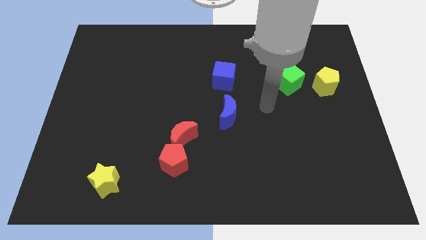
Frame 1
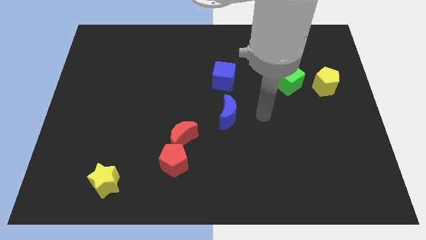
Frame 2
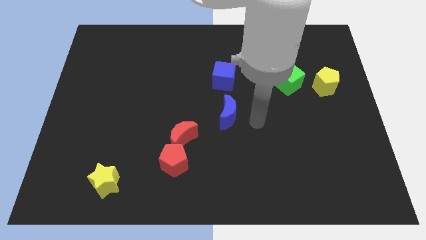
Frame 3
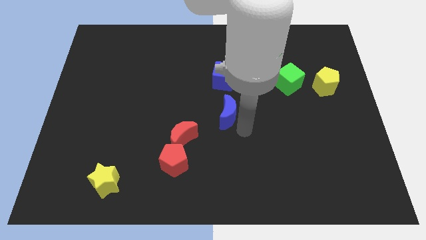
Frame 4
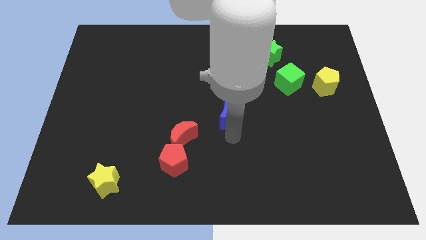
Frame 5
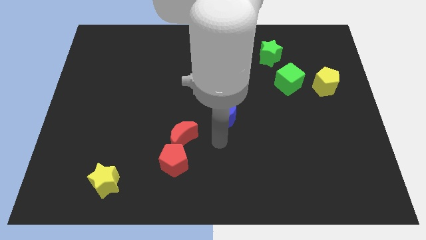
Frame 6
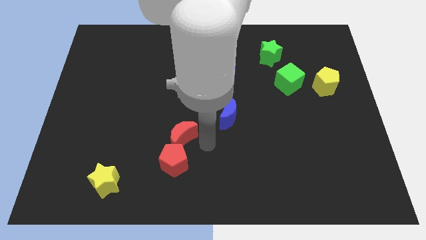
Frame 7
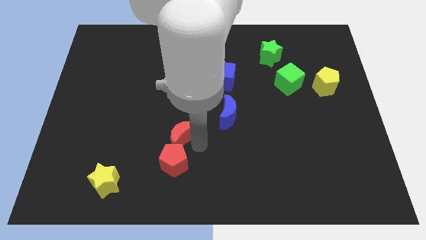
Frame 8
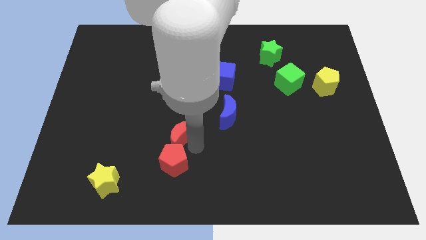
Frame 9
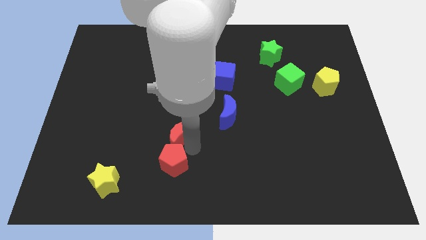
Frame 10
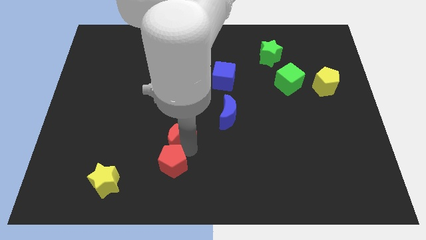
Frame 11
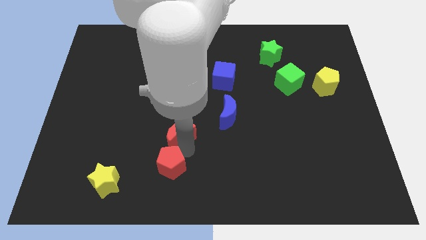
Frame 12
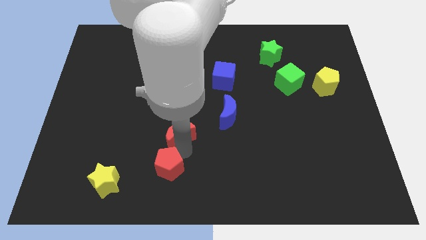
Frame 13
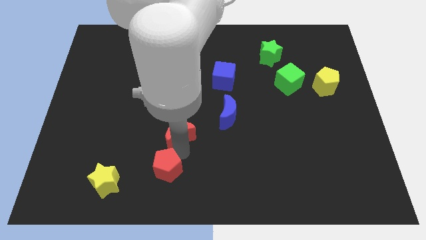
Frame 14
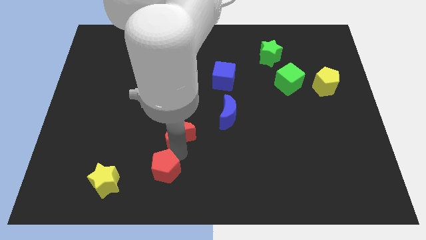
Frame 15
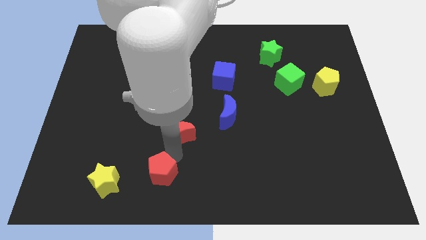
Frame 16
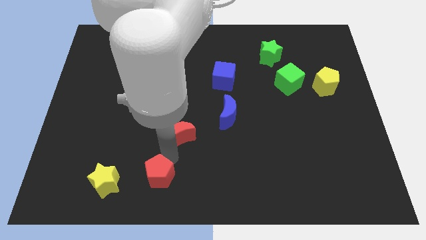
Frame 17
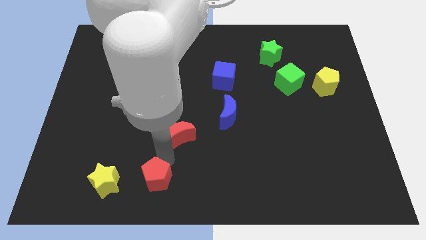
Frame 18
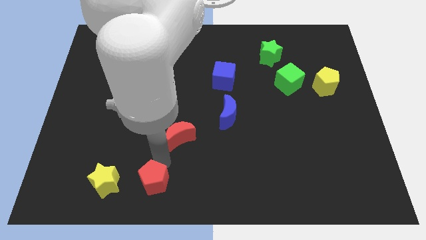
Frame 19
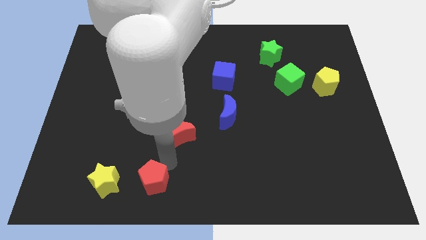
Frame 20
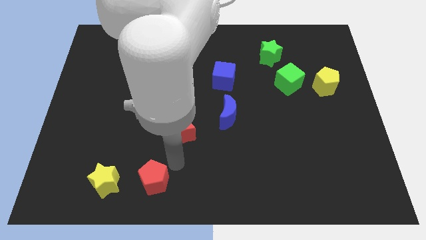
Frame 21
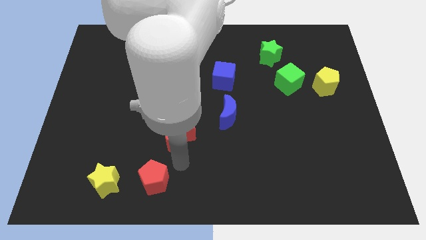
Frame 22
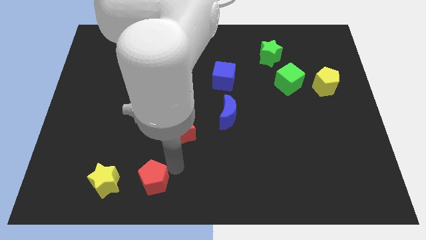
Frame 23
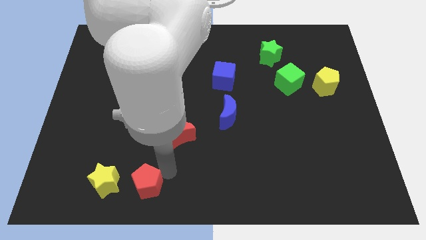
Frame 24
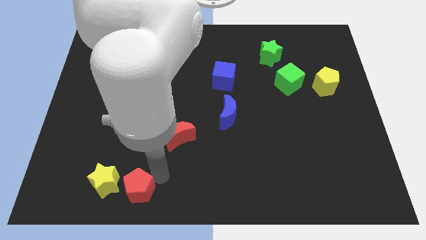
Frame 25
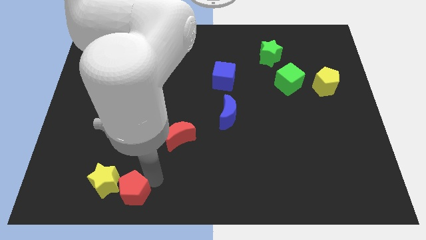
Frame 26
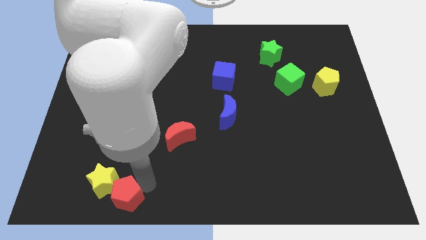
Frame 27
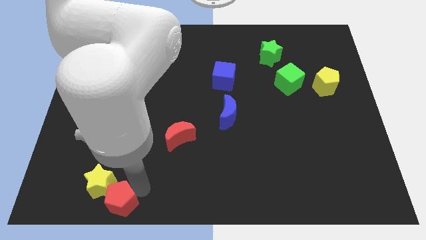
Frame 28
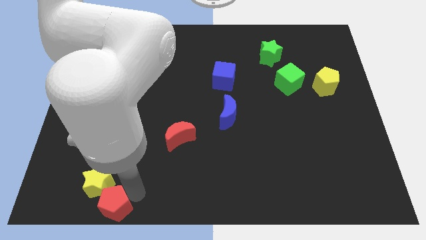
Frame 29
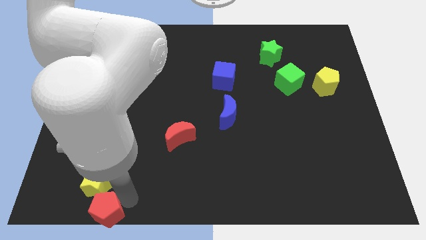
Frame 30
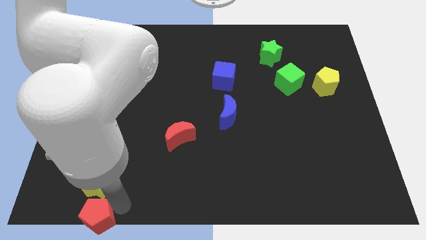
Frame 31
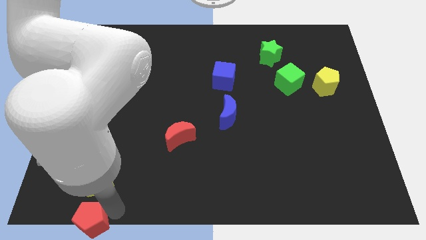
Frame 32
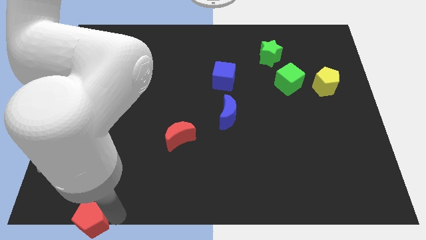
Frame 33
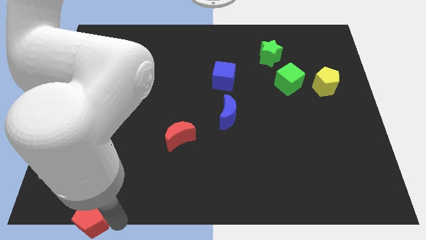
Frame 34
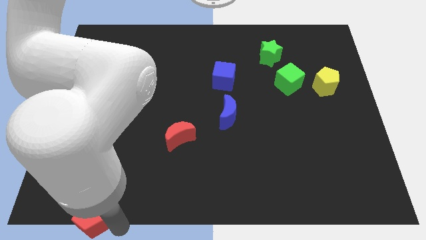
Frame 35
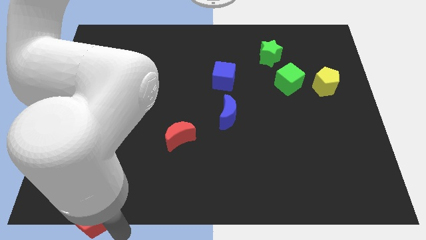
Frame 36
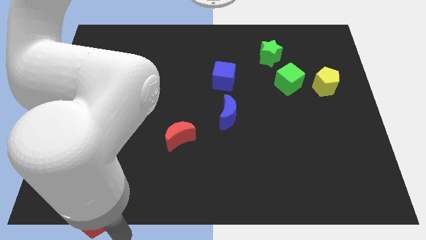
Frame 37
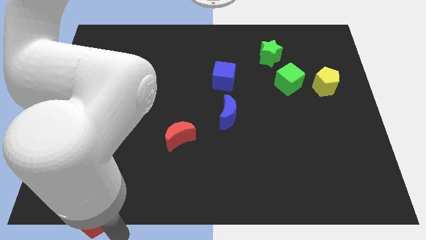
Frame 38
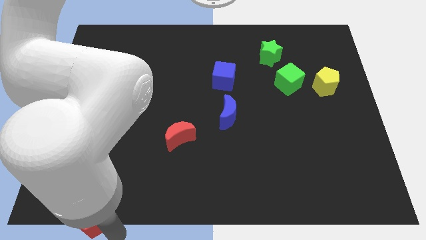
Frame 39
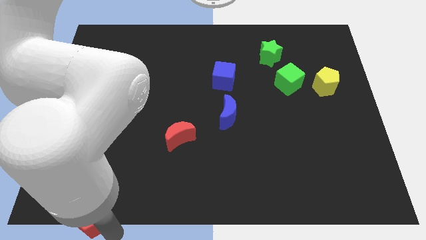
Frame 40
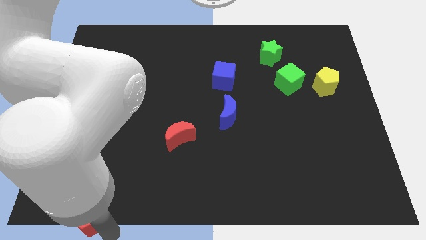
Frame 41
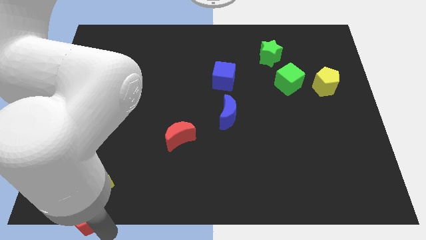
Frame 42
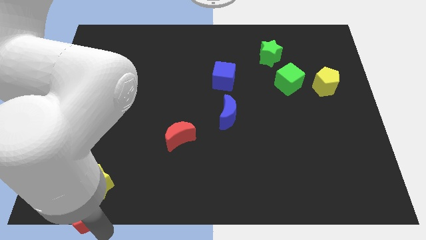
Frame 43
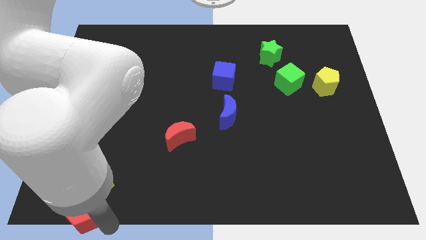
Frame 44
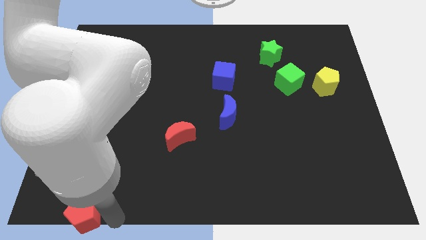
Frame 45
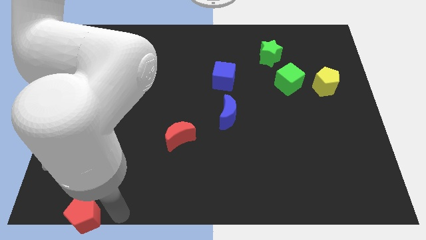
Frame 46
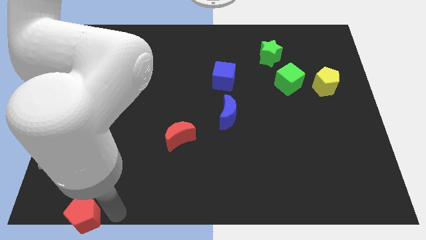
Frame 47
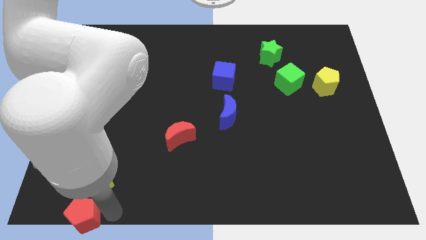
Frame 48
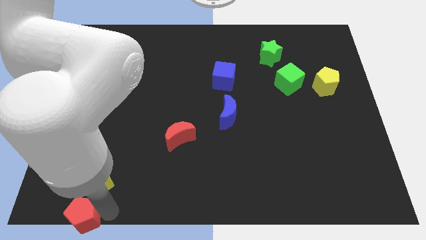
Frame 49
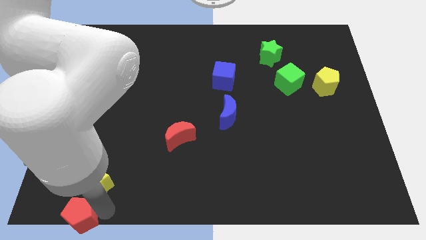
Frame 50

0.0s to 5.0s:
slide the red pentagon to the bottom left

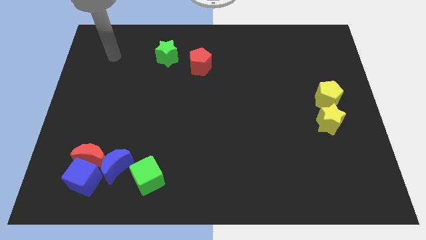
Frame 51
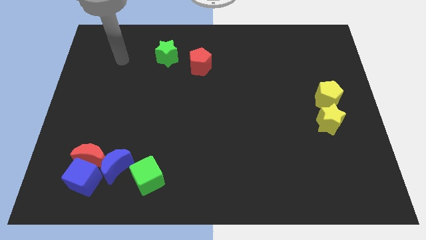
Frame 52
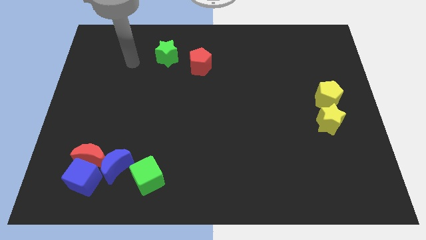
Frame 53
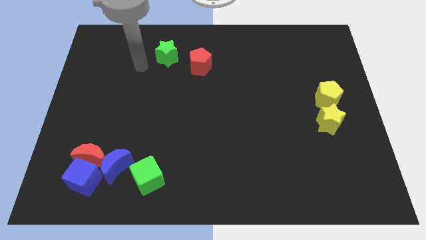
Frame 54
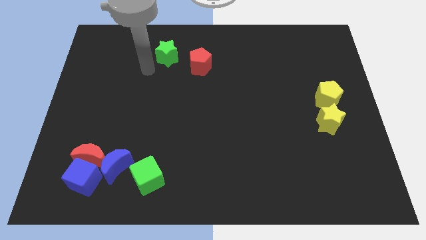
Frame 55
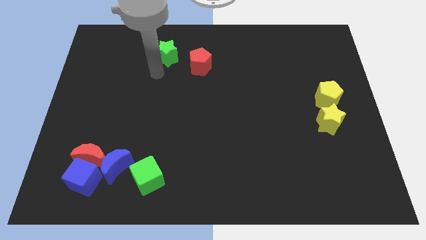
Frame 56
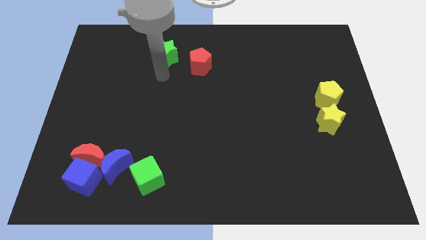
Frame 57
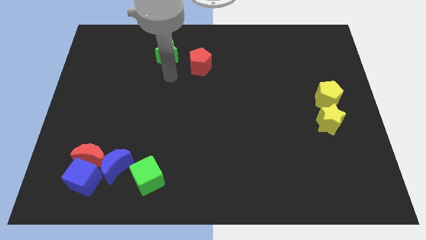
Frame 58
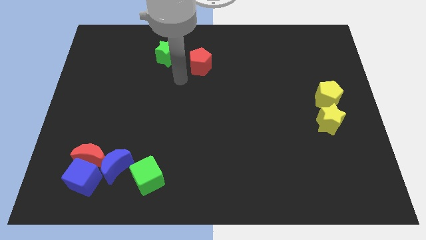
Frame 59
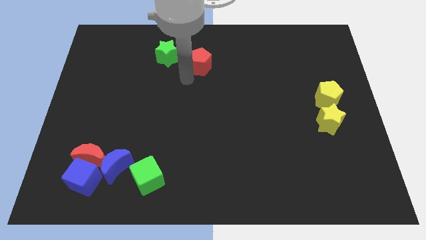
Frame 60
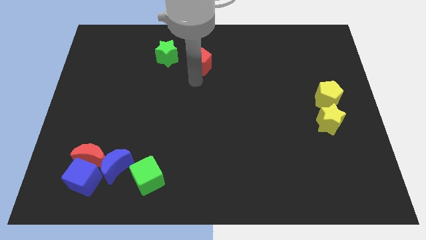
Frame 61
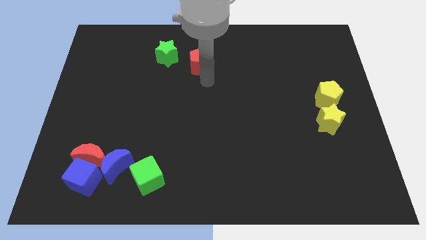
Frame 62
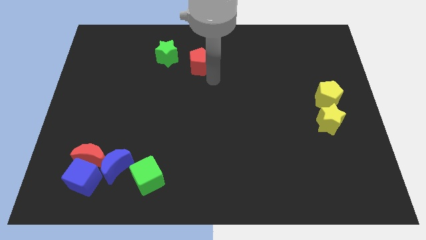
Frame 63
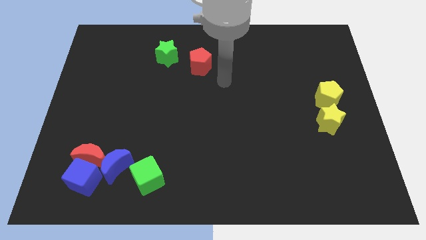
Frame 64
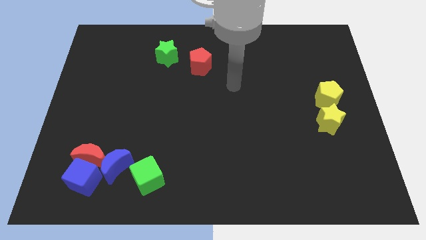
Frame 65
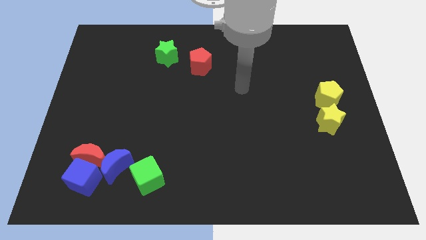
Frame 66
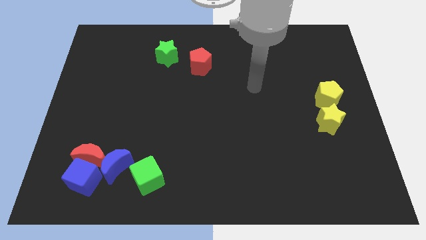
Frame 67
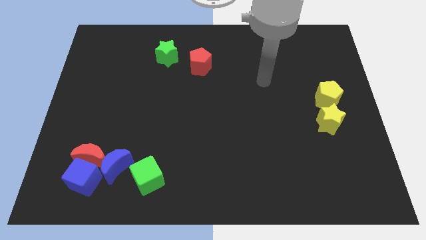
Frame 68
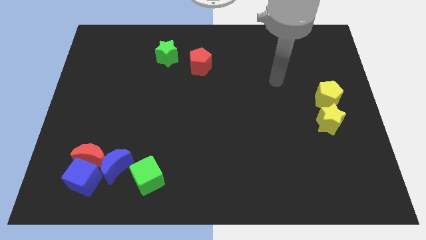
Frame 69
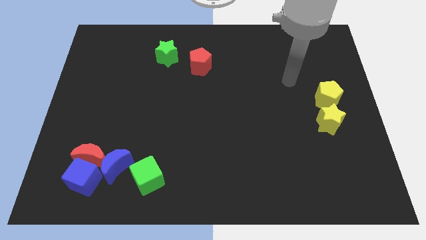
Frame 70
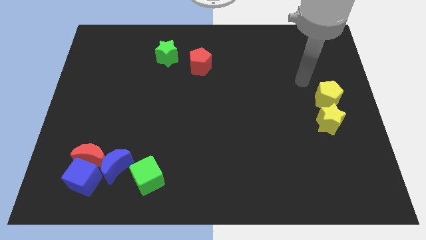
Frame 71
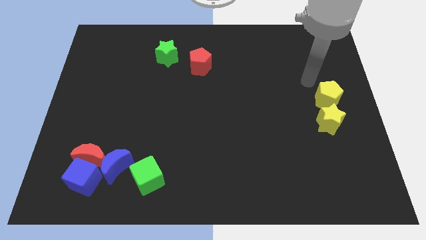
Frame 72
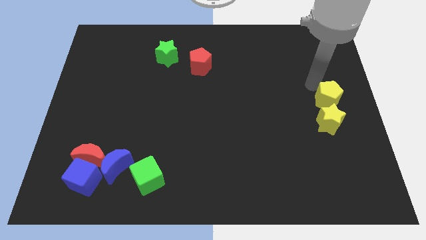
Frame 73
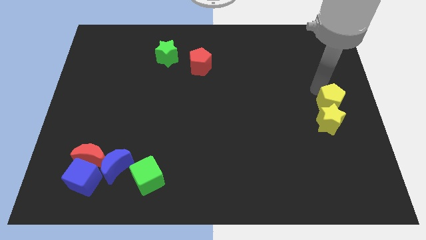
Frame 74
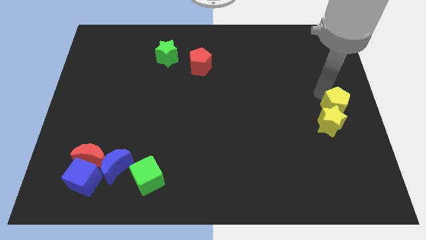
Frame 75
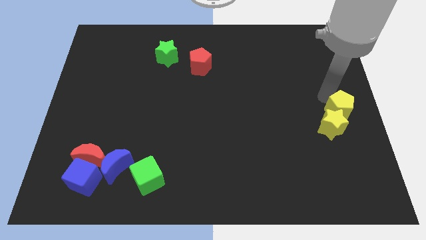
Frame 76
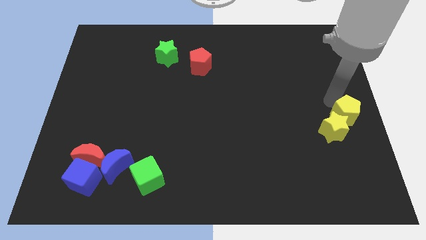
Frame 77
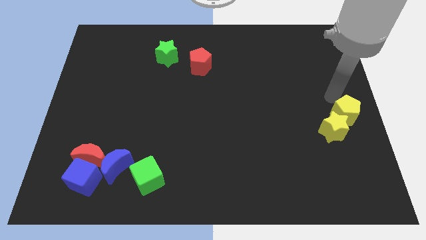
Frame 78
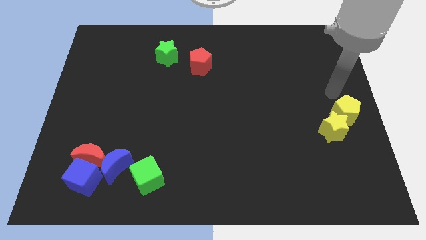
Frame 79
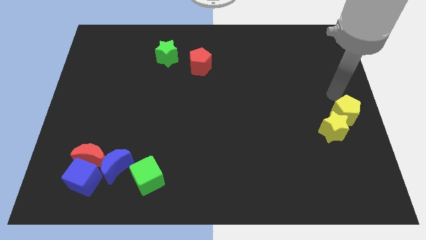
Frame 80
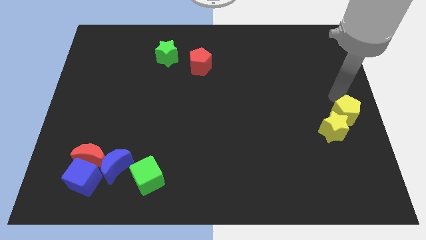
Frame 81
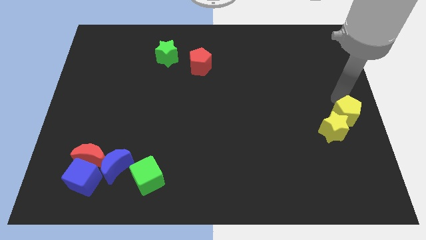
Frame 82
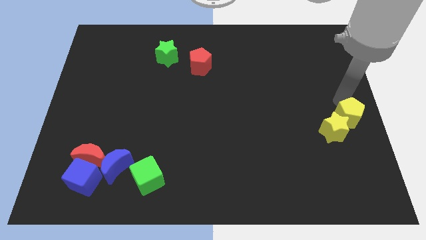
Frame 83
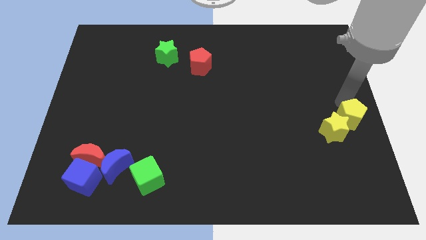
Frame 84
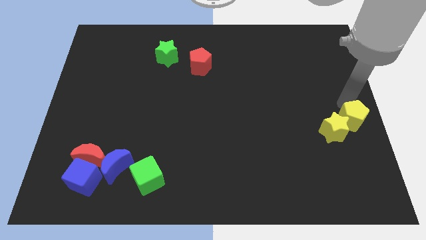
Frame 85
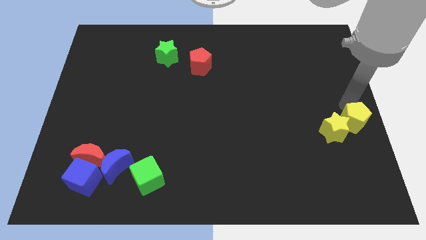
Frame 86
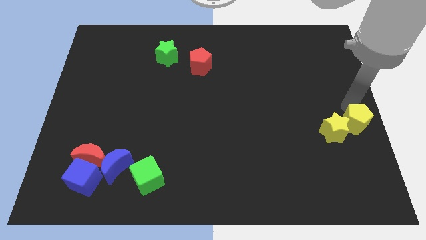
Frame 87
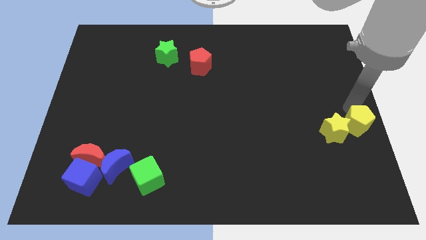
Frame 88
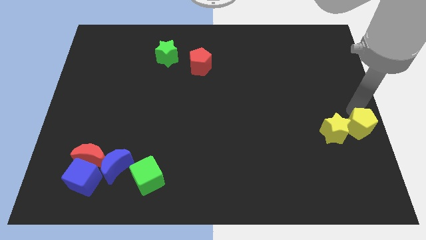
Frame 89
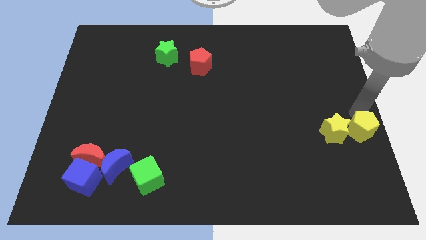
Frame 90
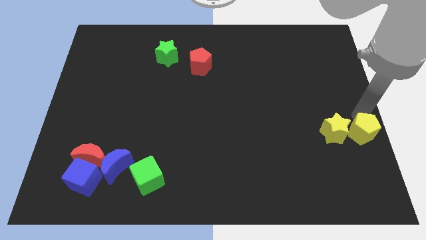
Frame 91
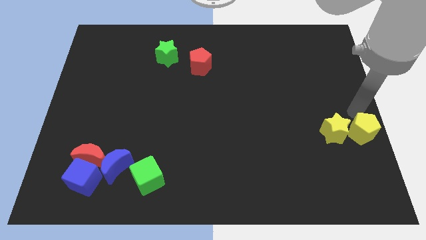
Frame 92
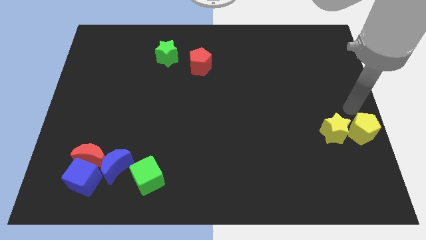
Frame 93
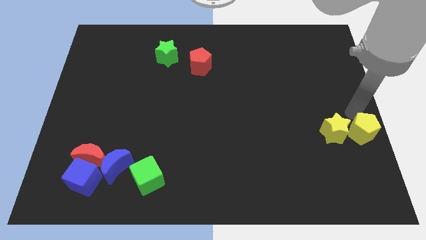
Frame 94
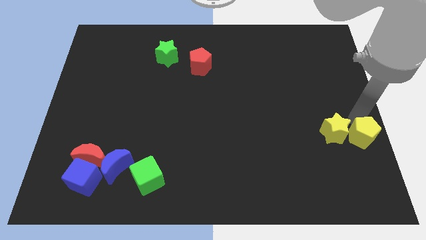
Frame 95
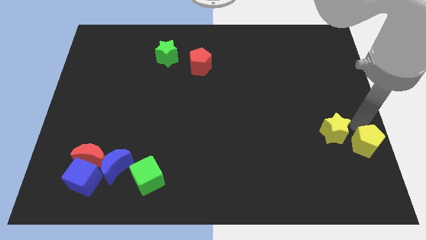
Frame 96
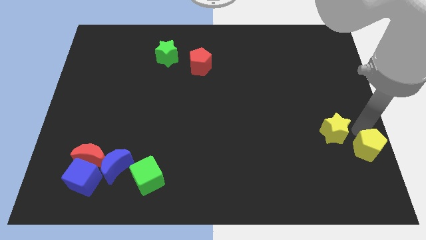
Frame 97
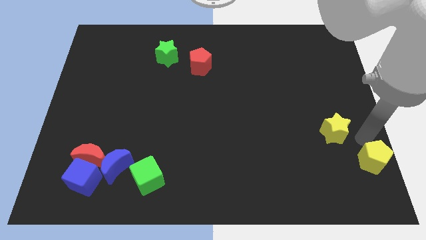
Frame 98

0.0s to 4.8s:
move the yellow pentagon to the bottom right of the board
